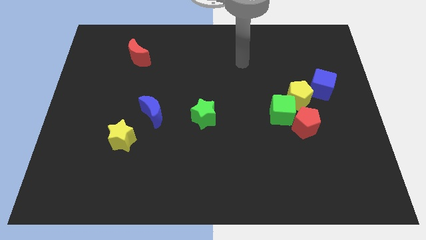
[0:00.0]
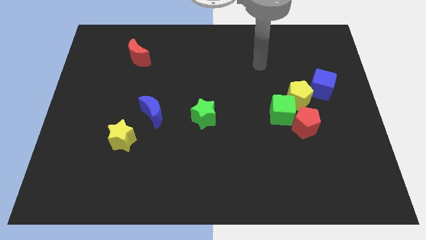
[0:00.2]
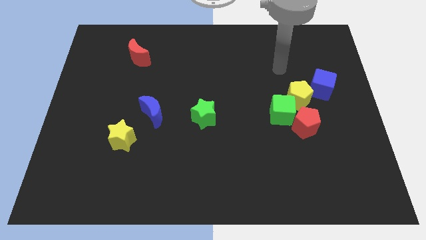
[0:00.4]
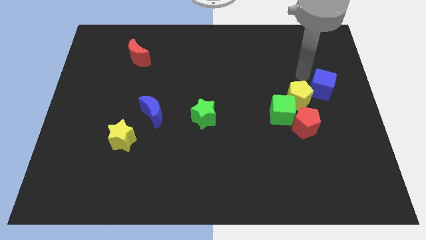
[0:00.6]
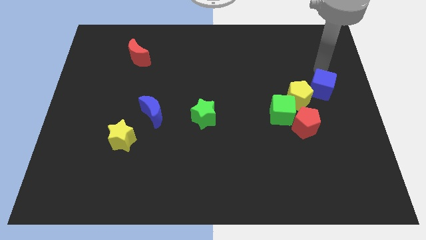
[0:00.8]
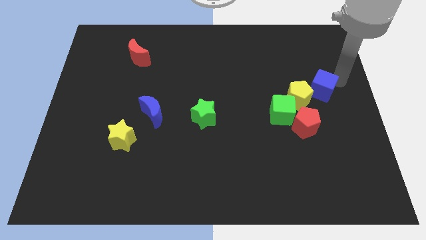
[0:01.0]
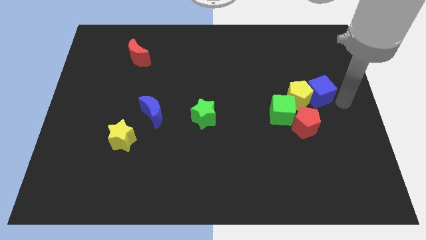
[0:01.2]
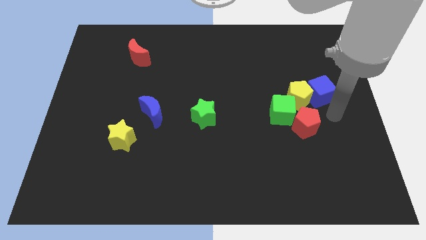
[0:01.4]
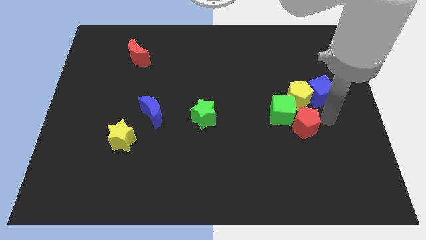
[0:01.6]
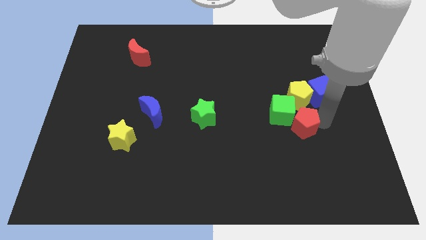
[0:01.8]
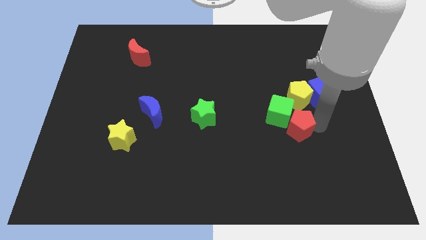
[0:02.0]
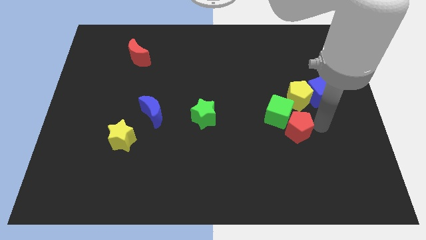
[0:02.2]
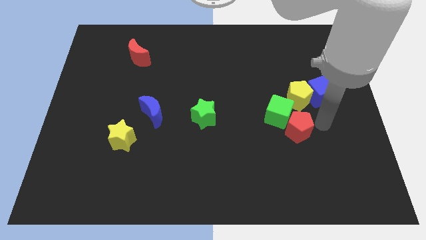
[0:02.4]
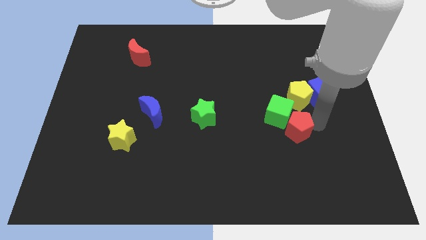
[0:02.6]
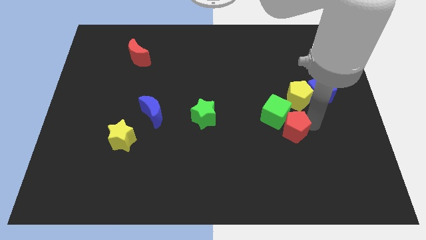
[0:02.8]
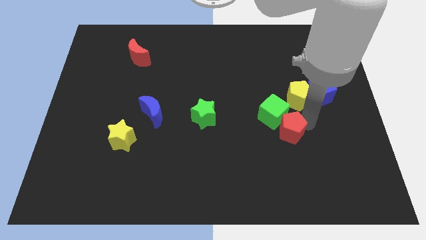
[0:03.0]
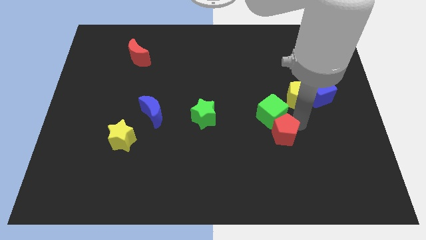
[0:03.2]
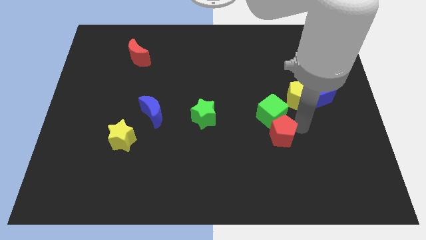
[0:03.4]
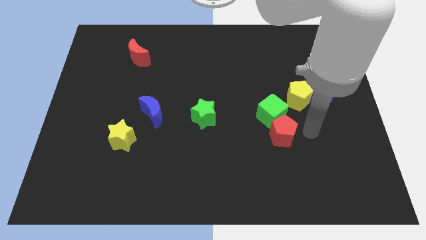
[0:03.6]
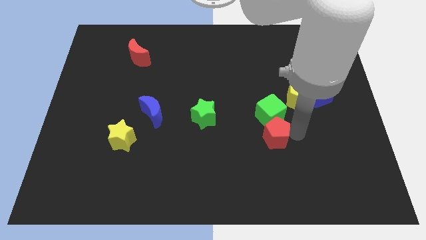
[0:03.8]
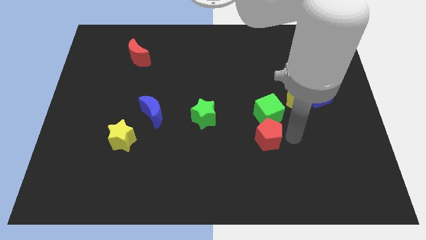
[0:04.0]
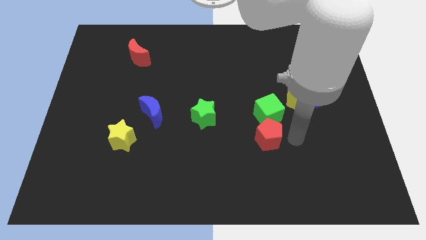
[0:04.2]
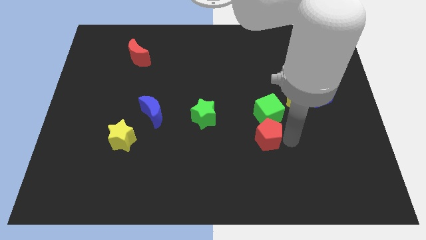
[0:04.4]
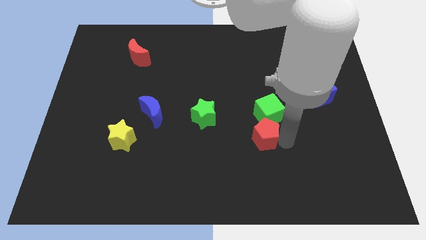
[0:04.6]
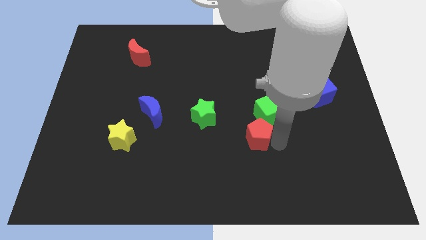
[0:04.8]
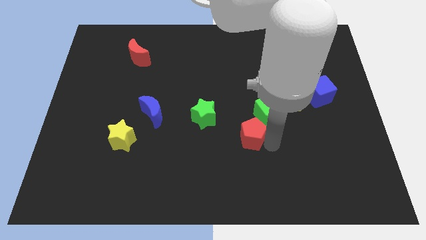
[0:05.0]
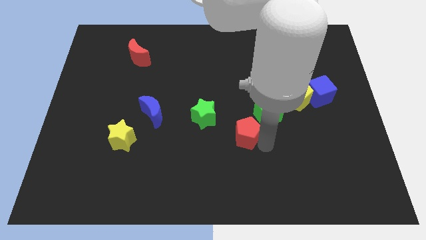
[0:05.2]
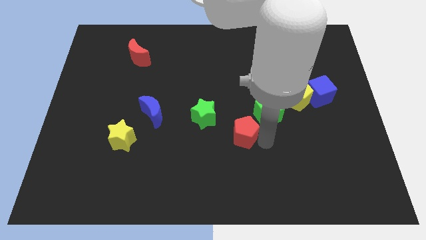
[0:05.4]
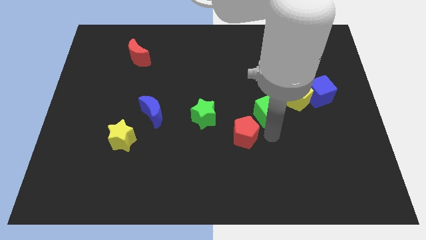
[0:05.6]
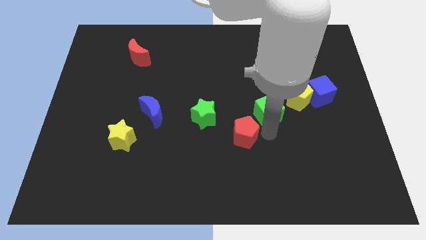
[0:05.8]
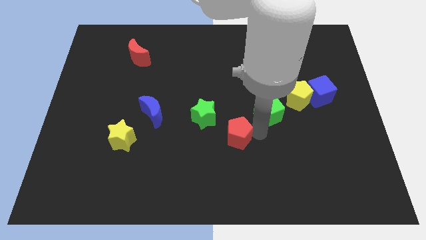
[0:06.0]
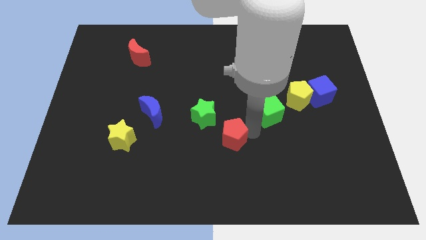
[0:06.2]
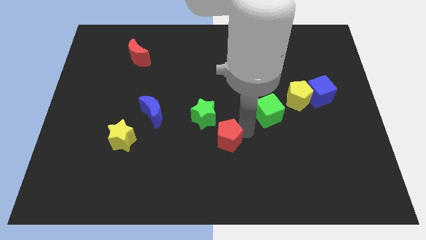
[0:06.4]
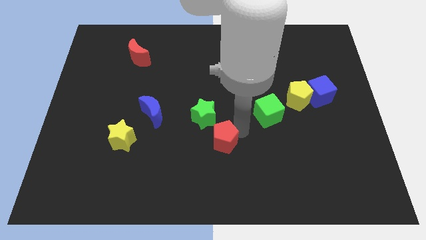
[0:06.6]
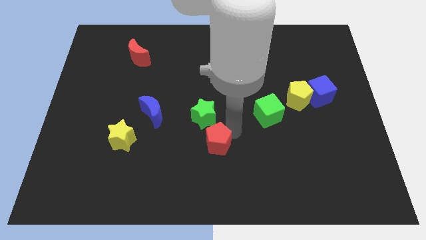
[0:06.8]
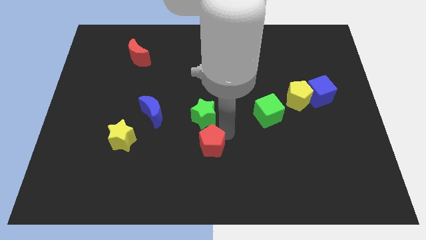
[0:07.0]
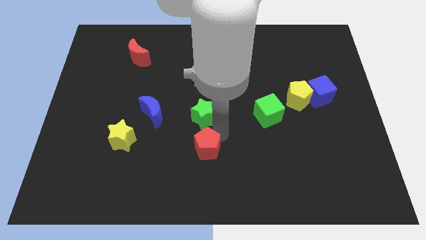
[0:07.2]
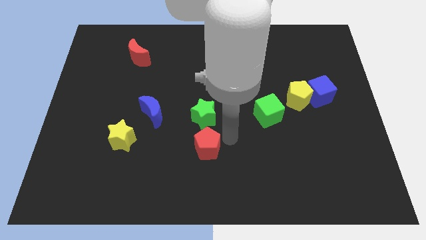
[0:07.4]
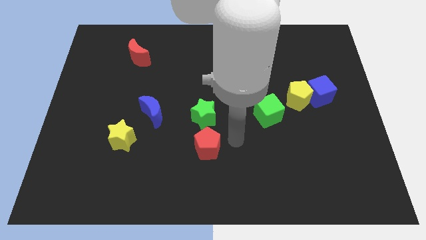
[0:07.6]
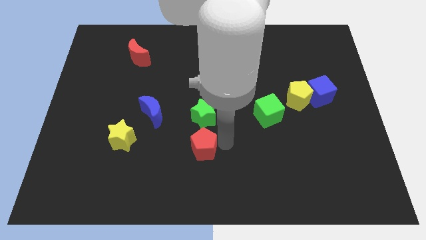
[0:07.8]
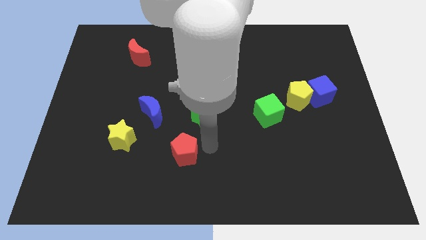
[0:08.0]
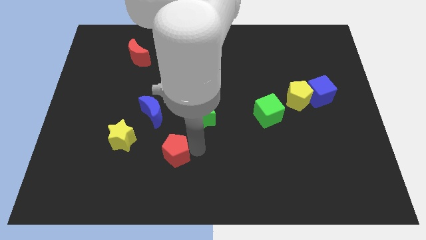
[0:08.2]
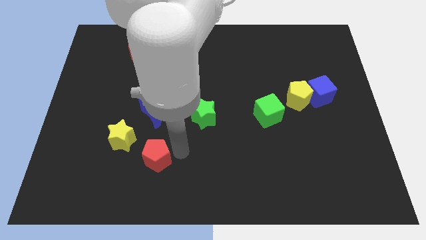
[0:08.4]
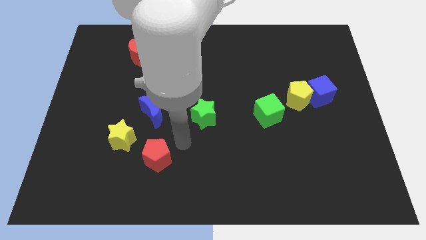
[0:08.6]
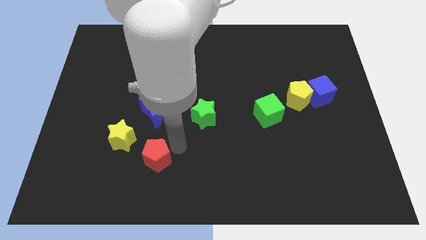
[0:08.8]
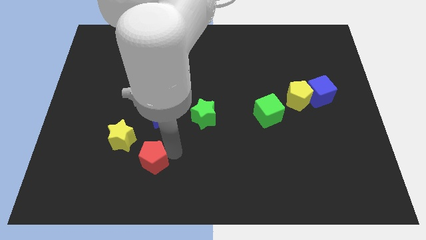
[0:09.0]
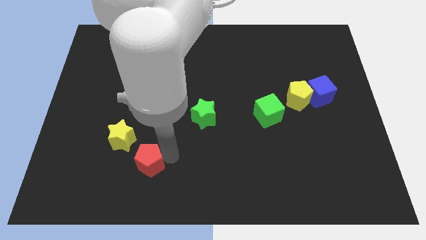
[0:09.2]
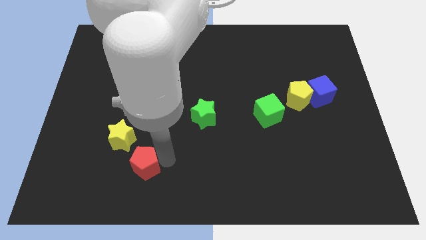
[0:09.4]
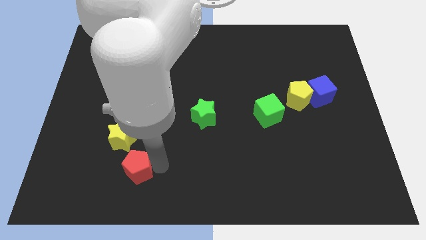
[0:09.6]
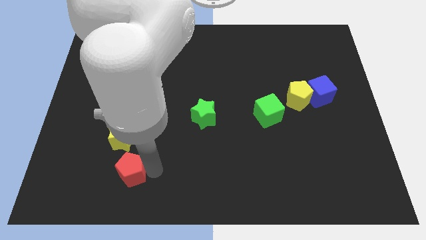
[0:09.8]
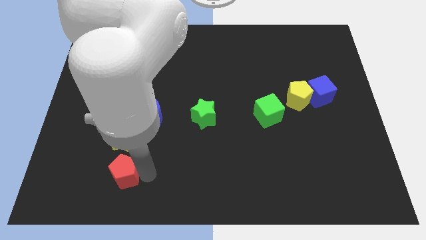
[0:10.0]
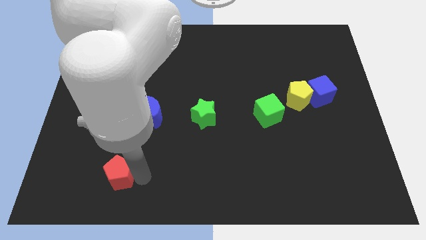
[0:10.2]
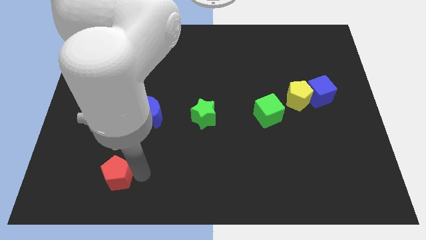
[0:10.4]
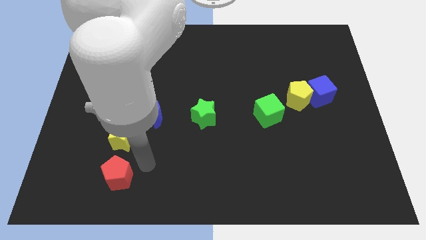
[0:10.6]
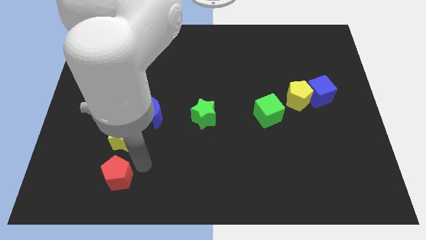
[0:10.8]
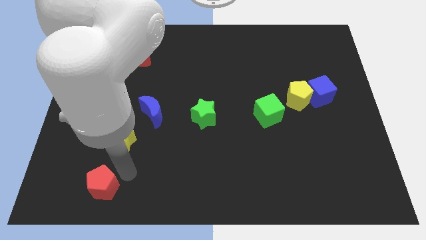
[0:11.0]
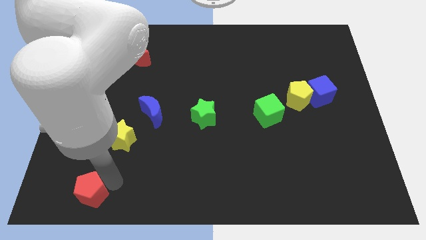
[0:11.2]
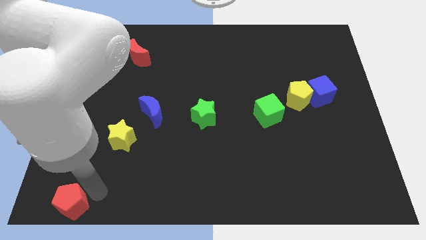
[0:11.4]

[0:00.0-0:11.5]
move the red pentagon to the bottom left
